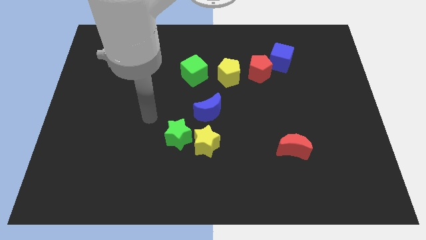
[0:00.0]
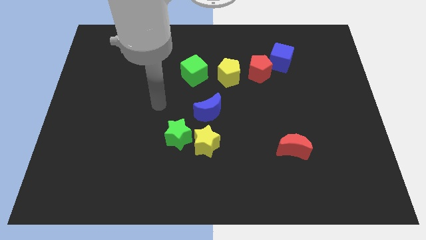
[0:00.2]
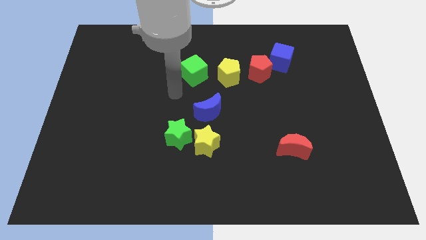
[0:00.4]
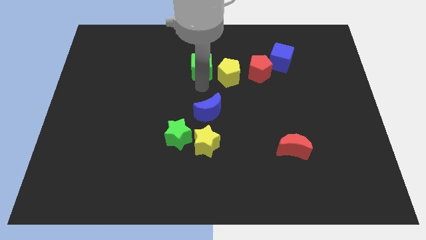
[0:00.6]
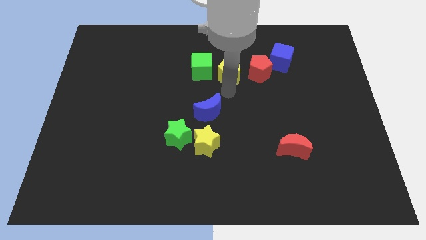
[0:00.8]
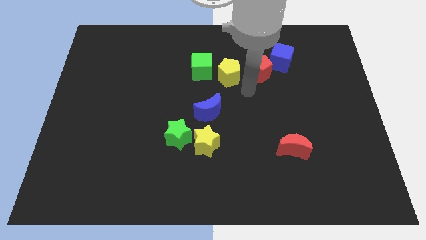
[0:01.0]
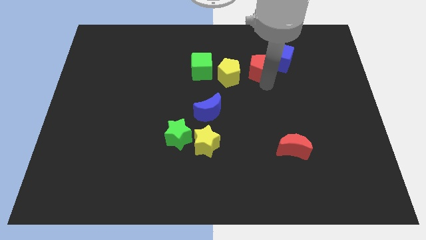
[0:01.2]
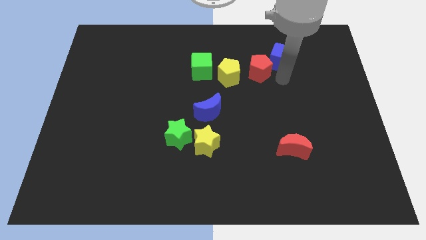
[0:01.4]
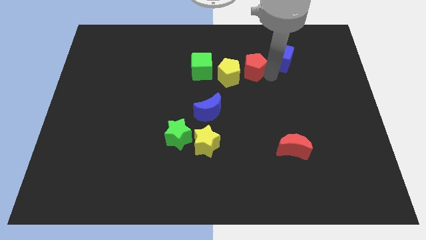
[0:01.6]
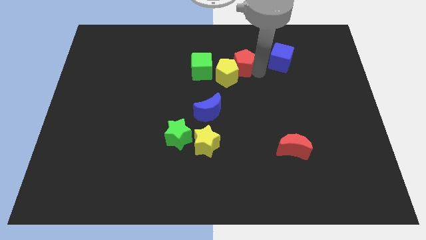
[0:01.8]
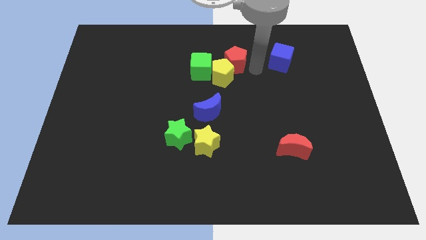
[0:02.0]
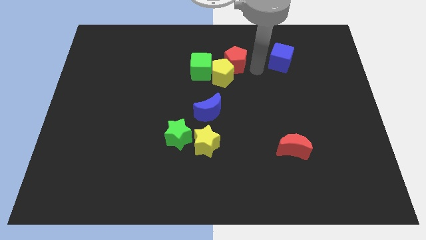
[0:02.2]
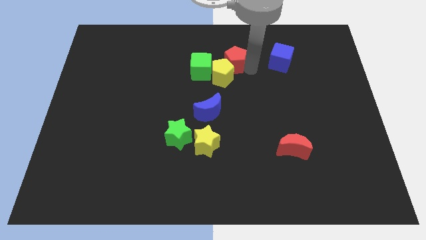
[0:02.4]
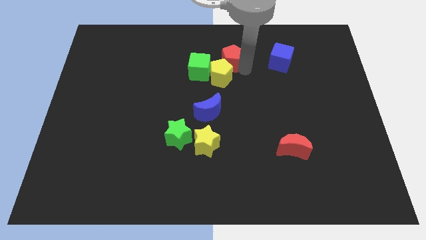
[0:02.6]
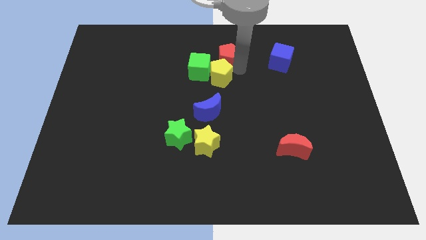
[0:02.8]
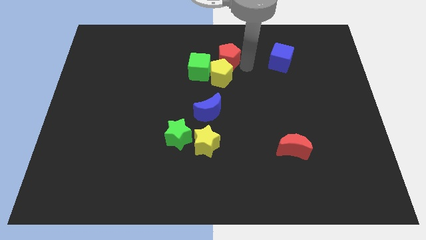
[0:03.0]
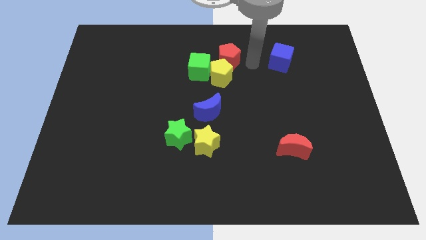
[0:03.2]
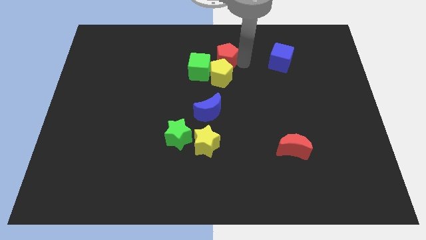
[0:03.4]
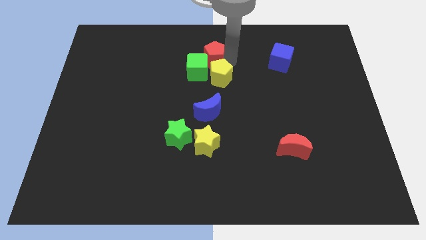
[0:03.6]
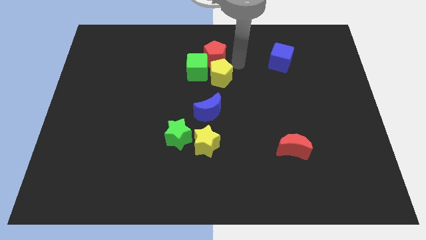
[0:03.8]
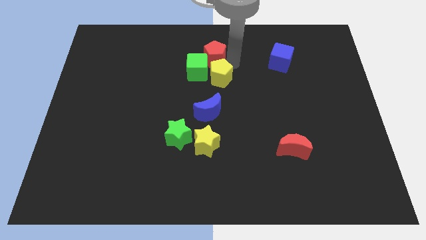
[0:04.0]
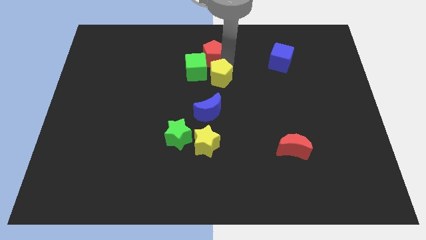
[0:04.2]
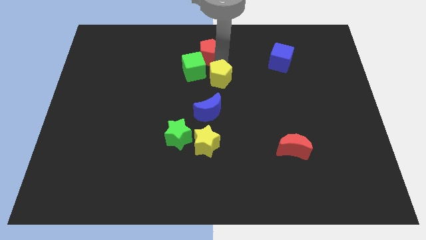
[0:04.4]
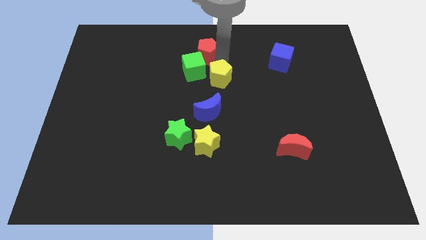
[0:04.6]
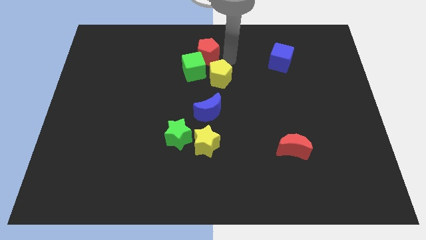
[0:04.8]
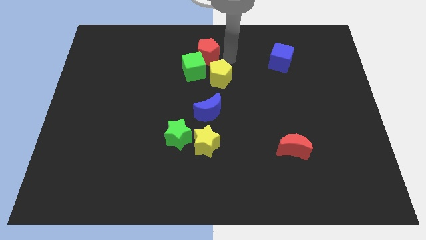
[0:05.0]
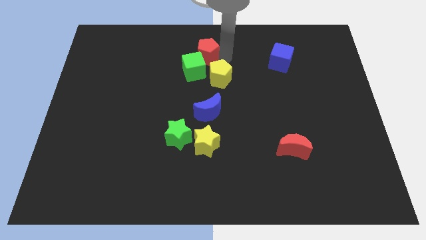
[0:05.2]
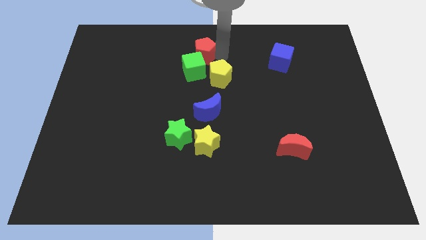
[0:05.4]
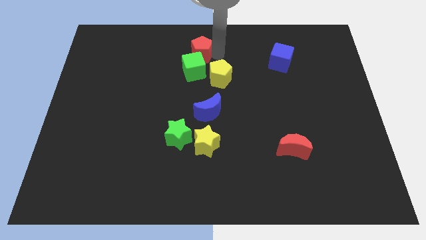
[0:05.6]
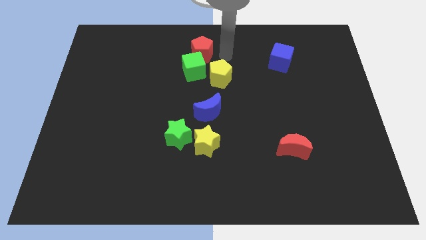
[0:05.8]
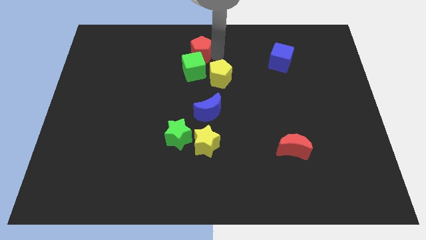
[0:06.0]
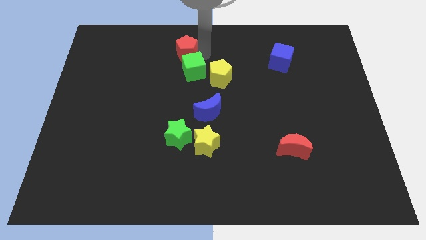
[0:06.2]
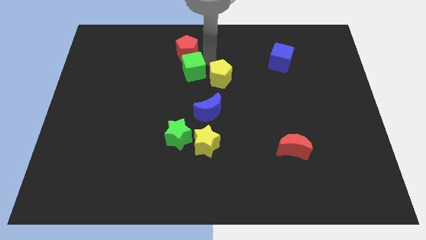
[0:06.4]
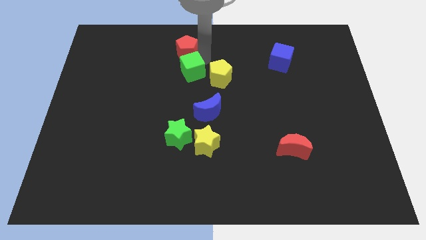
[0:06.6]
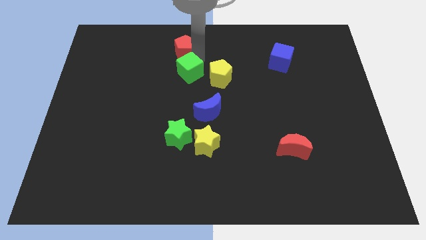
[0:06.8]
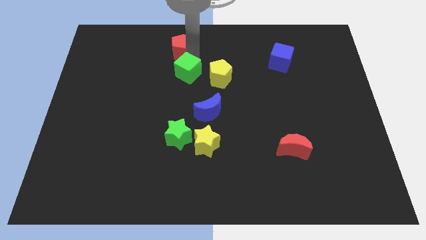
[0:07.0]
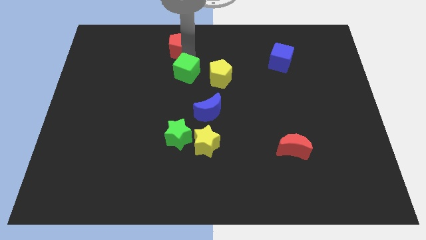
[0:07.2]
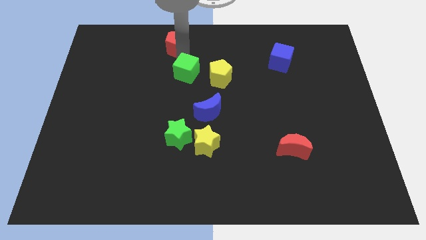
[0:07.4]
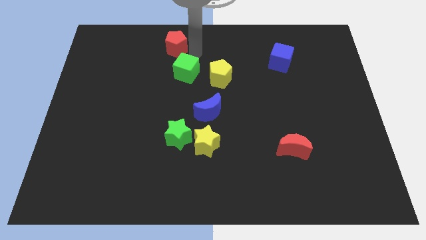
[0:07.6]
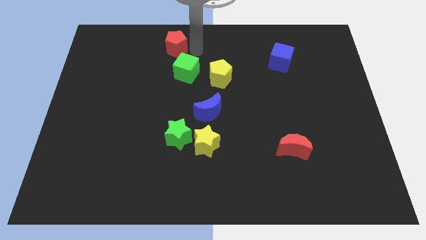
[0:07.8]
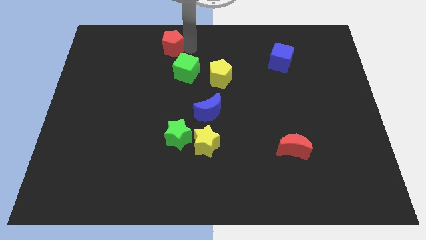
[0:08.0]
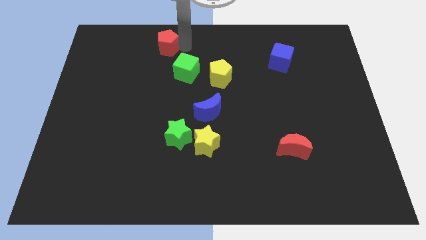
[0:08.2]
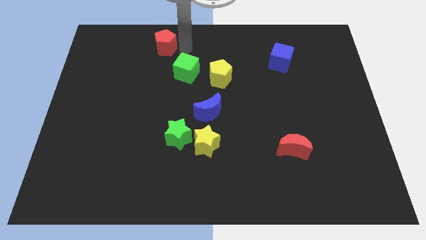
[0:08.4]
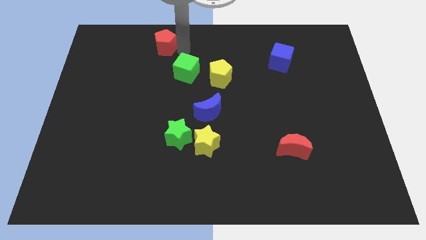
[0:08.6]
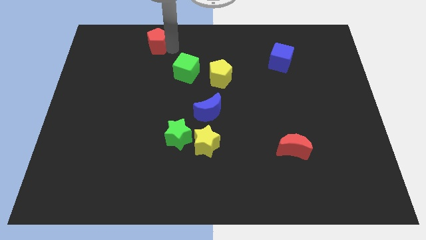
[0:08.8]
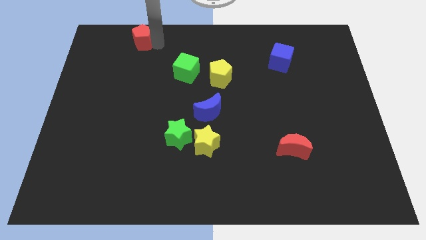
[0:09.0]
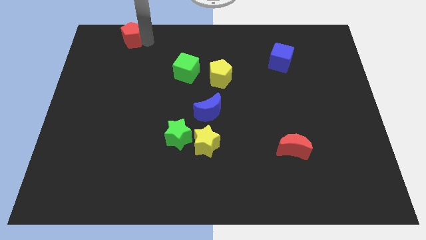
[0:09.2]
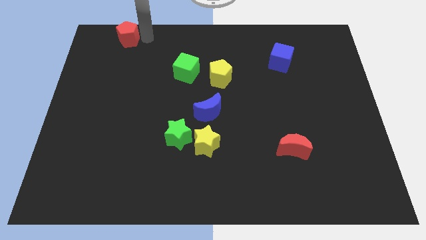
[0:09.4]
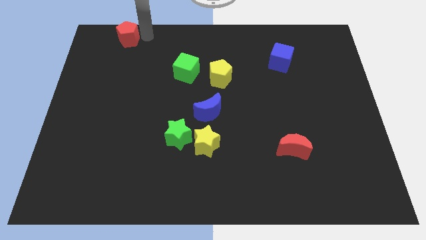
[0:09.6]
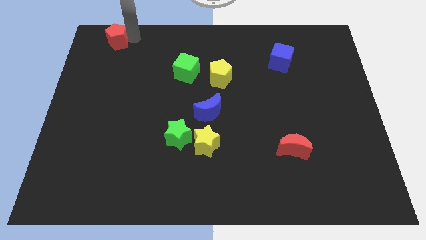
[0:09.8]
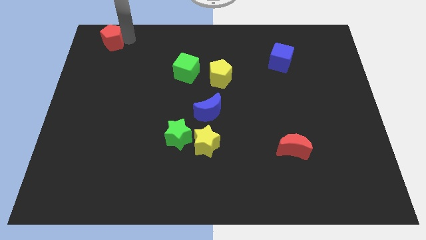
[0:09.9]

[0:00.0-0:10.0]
slide the red pentagon to the top left corner

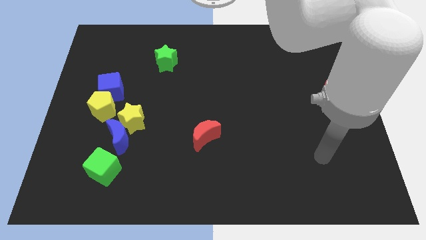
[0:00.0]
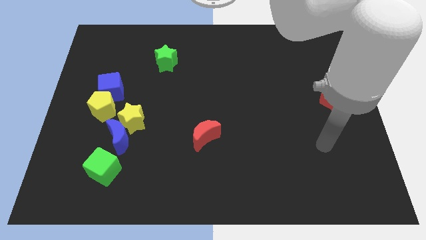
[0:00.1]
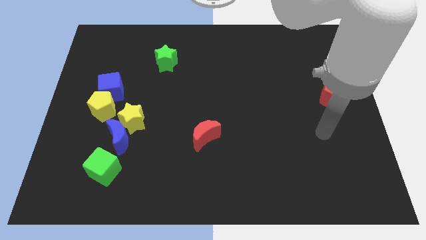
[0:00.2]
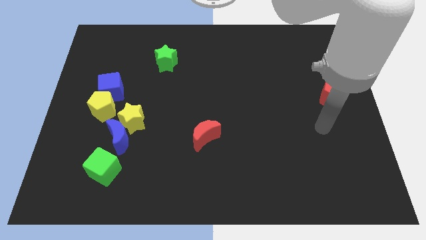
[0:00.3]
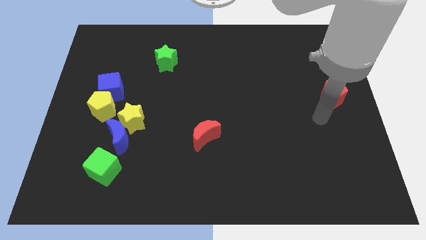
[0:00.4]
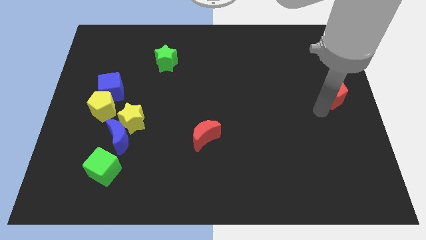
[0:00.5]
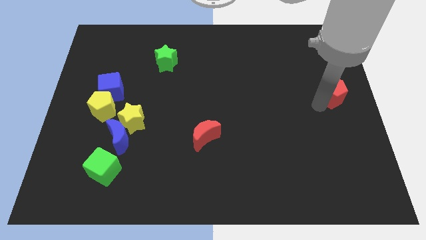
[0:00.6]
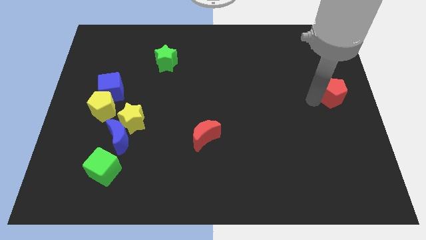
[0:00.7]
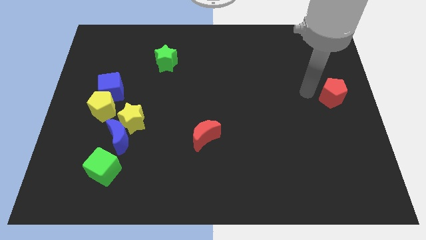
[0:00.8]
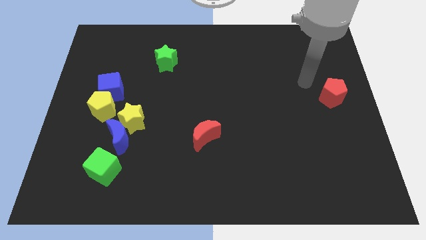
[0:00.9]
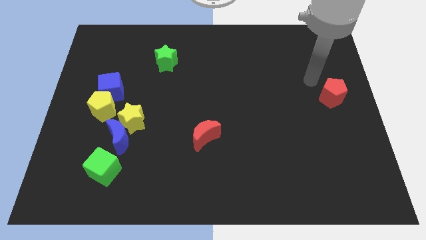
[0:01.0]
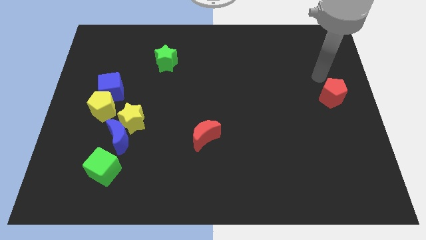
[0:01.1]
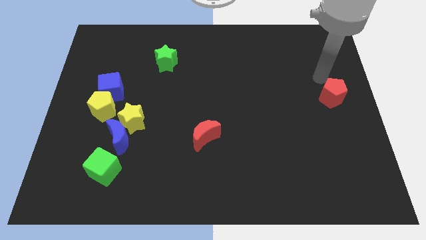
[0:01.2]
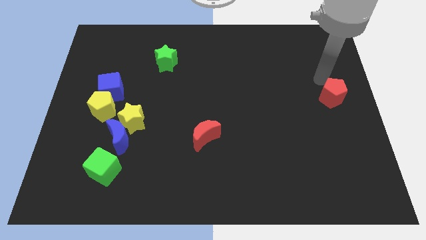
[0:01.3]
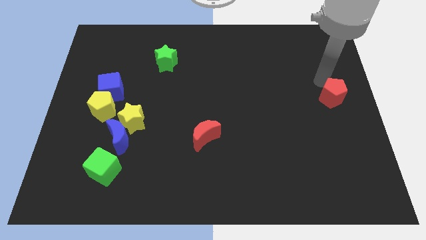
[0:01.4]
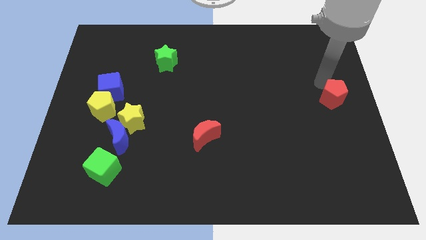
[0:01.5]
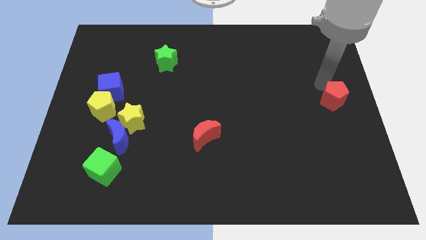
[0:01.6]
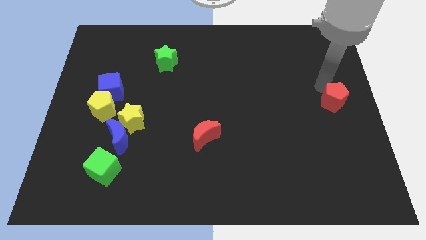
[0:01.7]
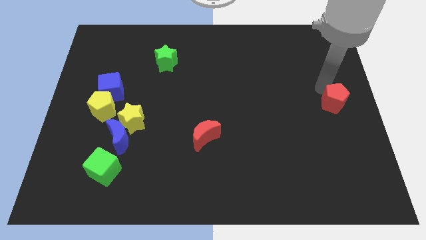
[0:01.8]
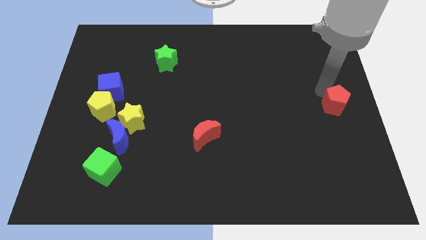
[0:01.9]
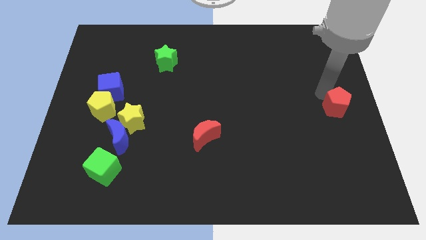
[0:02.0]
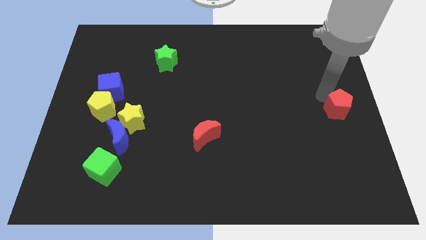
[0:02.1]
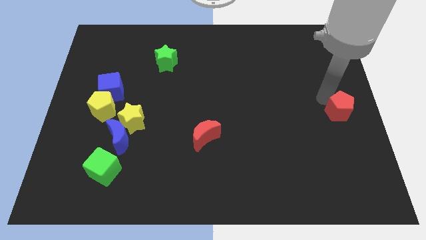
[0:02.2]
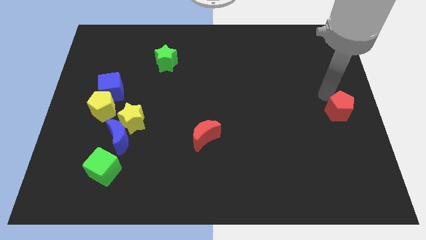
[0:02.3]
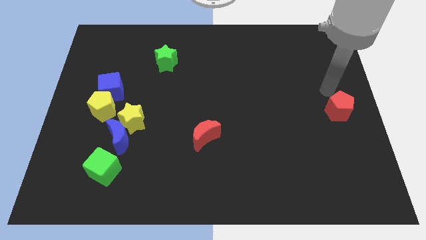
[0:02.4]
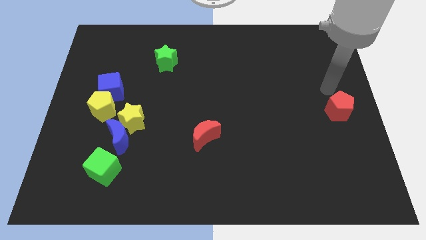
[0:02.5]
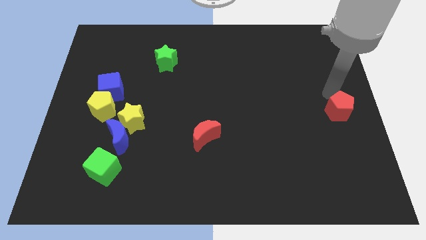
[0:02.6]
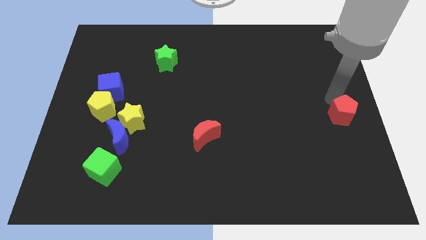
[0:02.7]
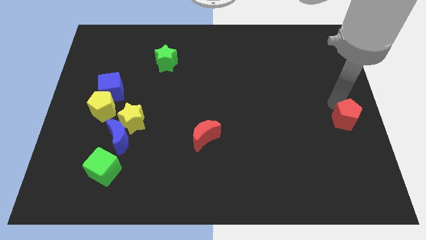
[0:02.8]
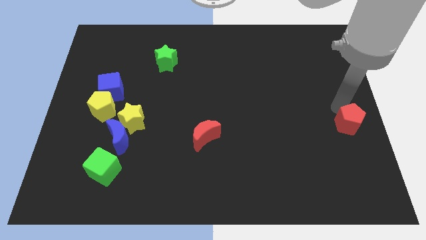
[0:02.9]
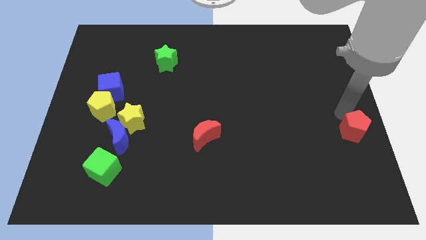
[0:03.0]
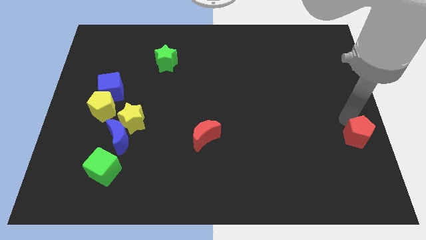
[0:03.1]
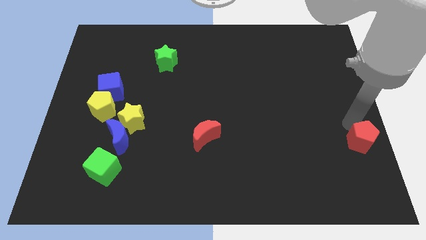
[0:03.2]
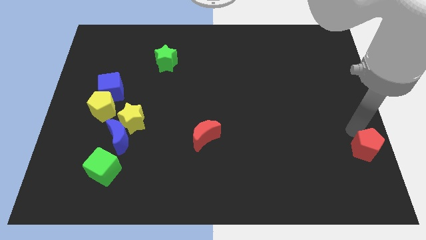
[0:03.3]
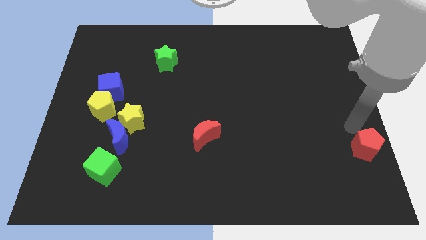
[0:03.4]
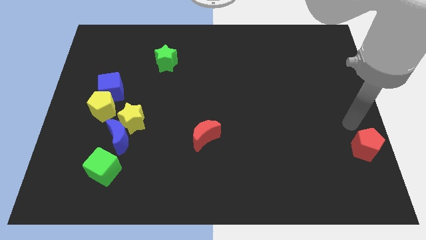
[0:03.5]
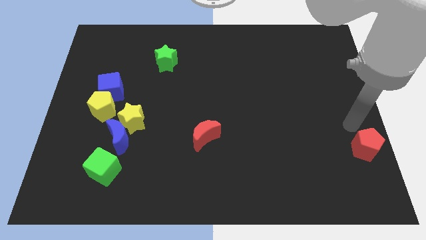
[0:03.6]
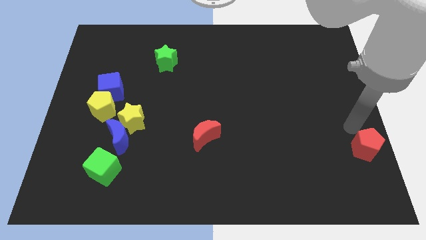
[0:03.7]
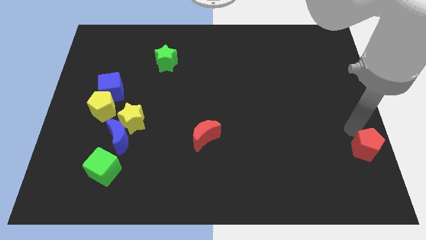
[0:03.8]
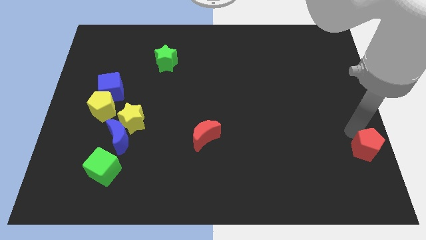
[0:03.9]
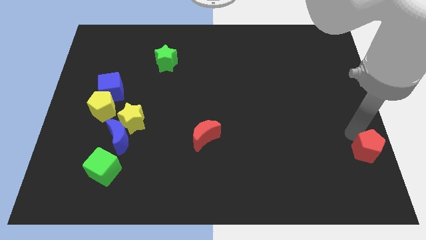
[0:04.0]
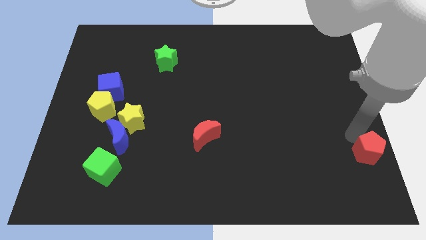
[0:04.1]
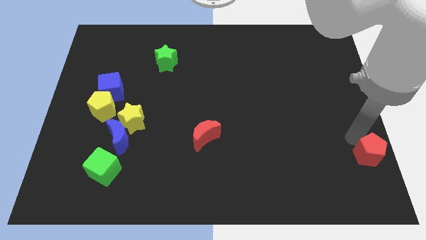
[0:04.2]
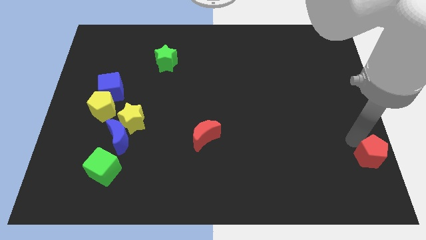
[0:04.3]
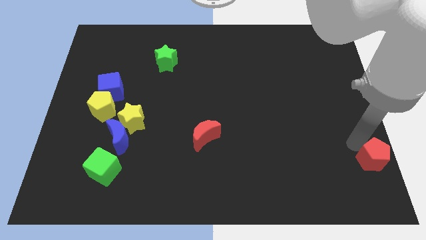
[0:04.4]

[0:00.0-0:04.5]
push the red pentagon to the lower right corner
